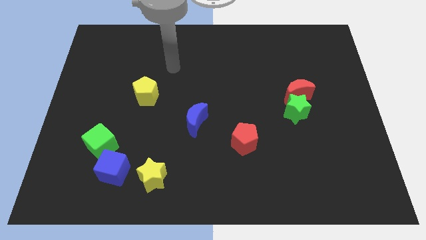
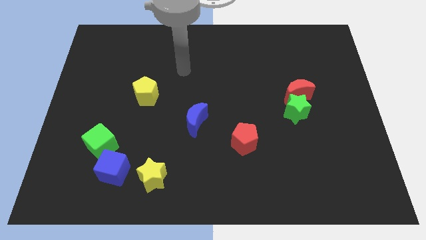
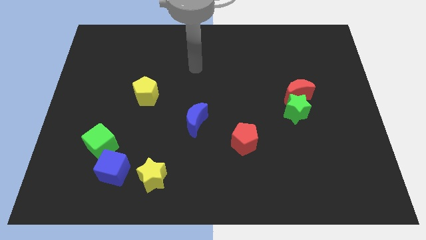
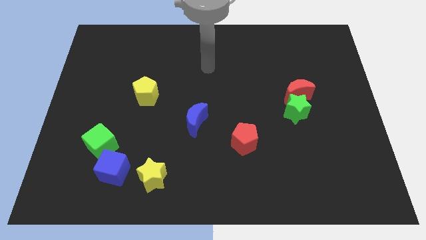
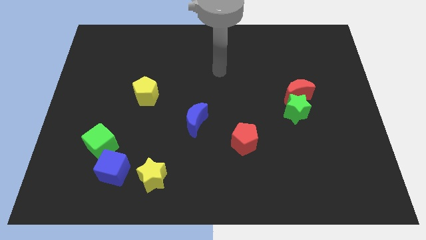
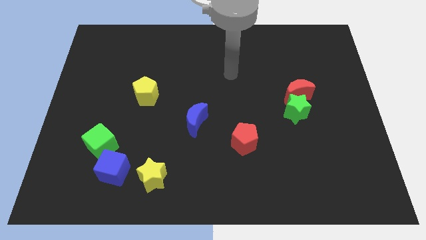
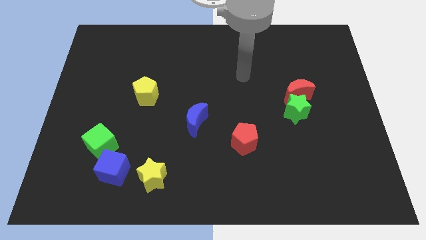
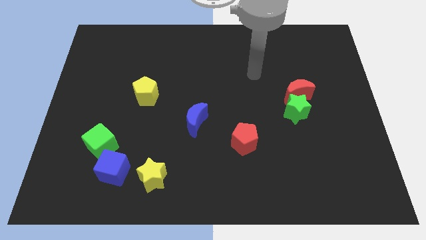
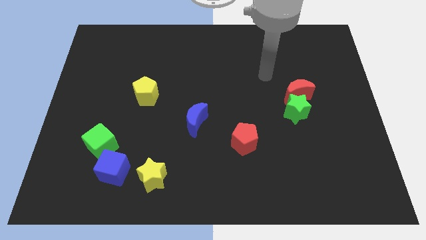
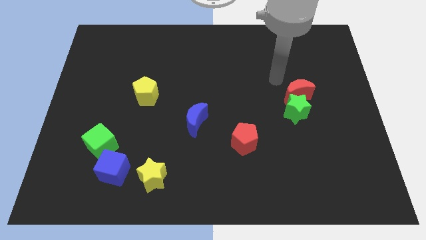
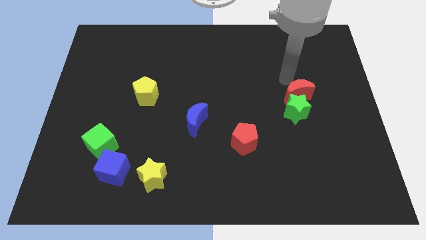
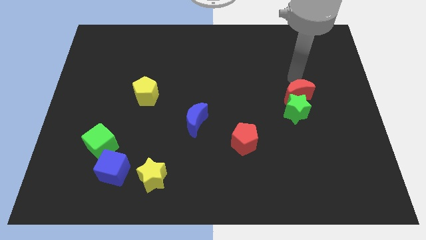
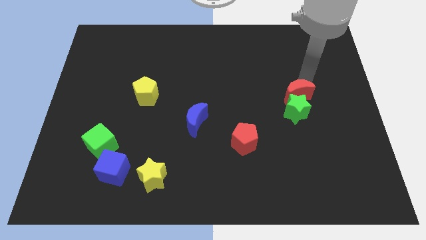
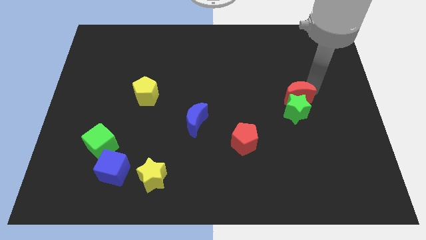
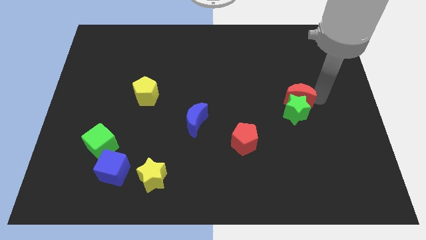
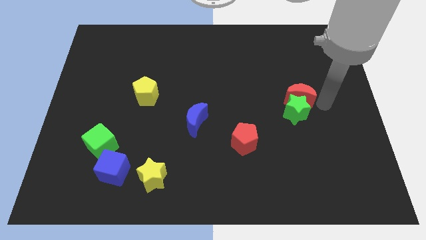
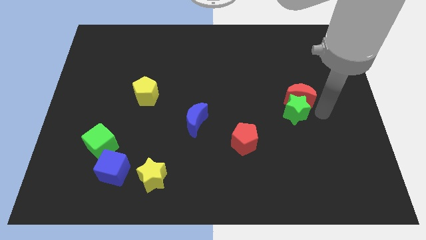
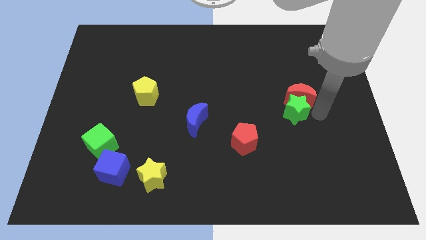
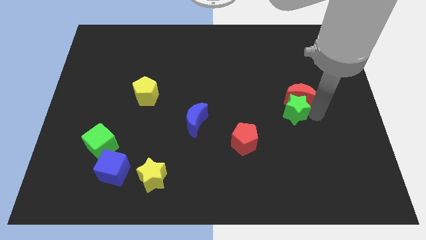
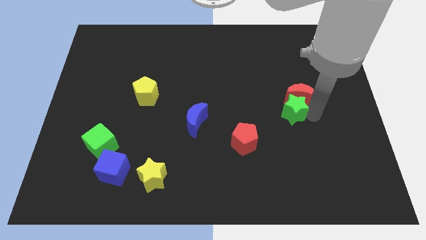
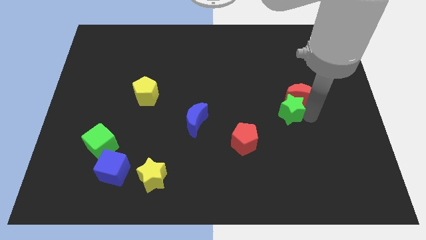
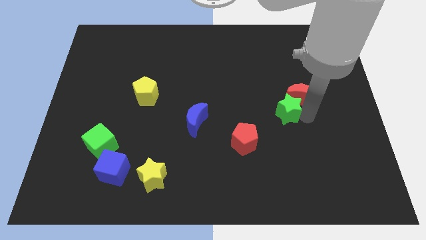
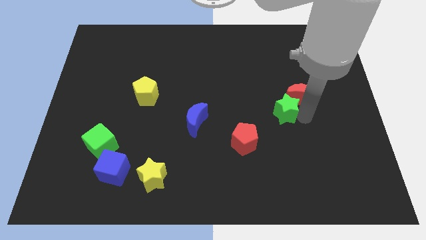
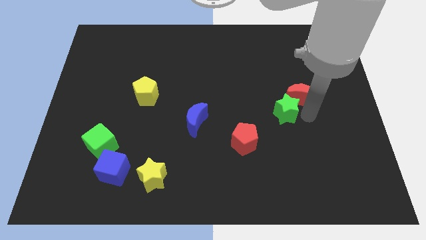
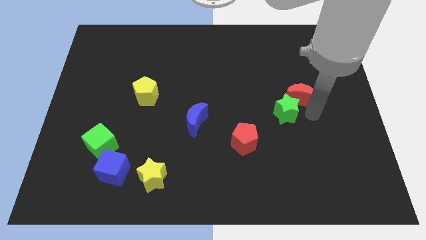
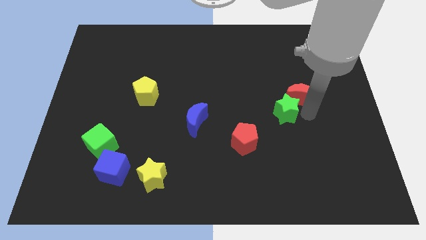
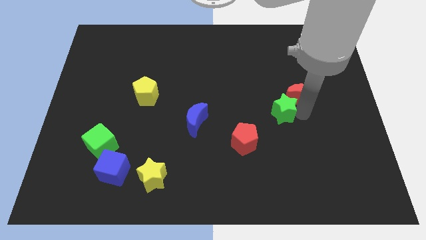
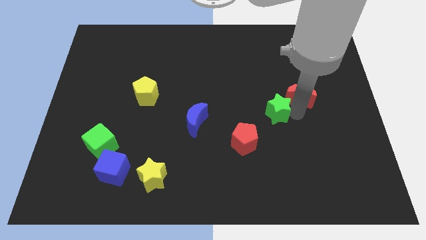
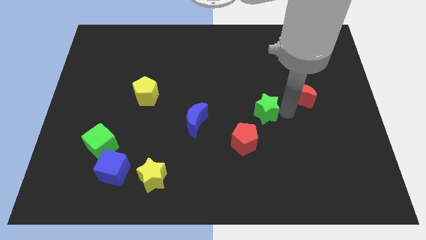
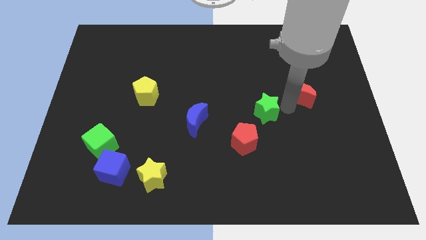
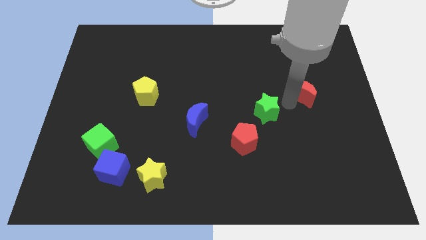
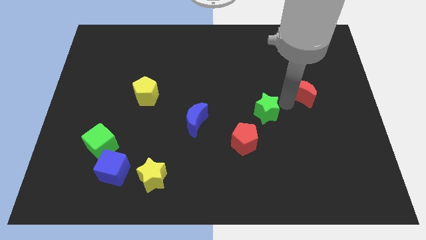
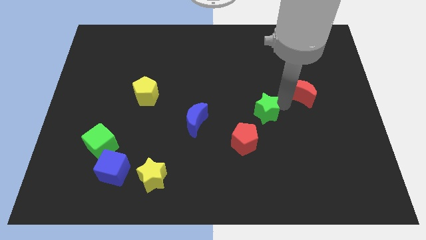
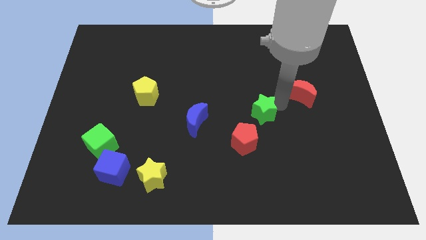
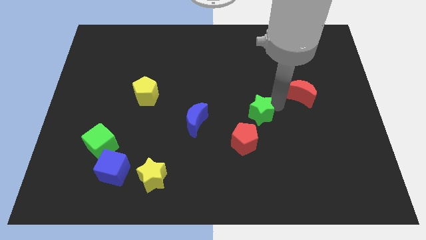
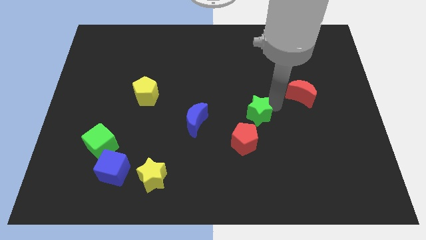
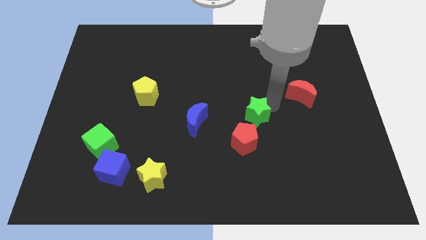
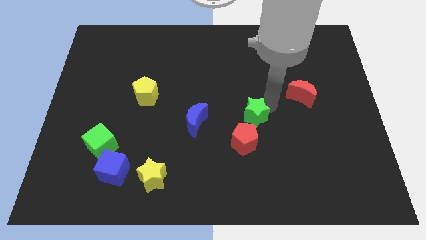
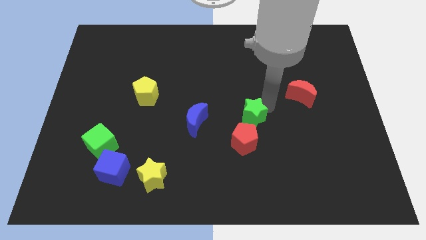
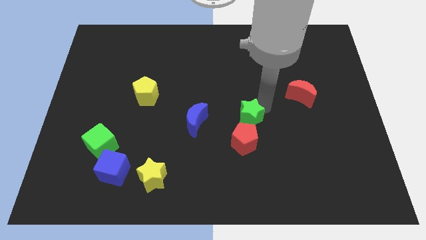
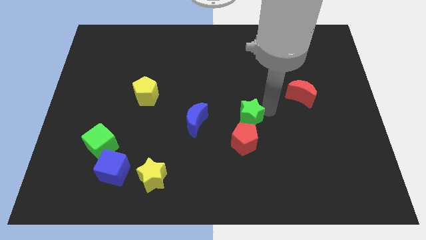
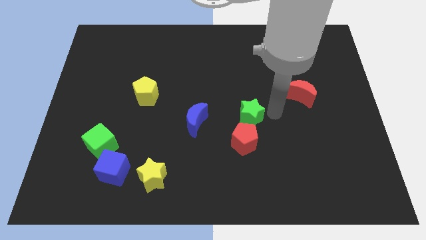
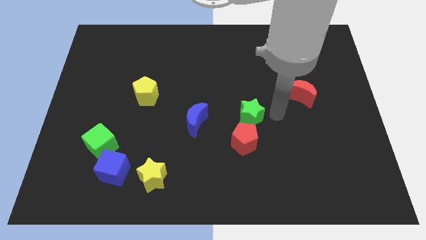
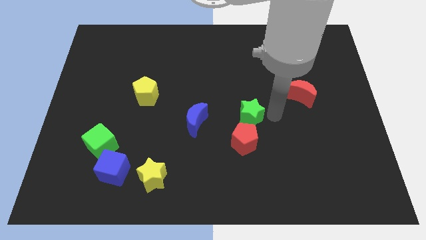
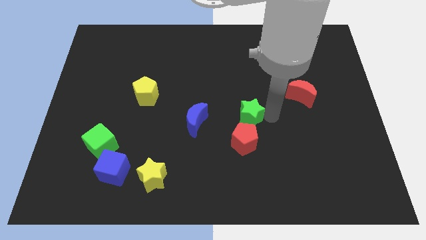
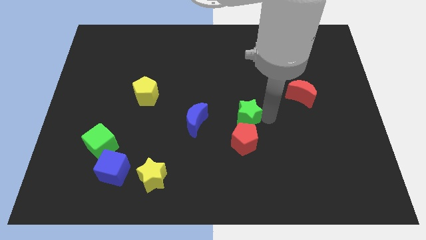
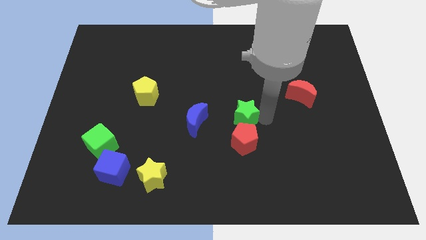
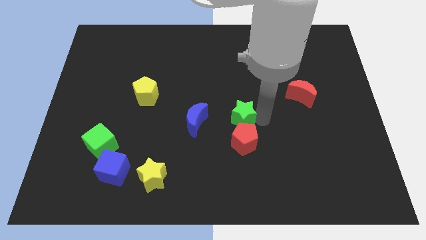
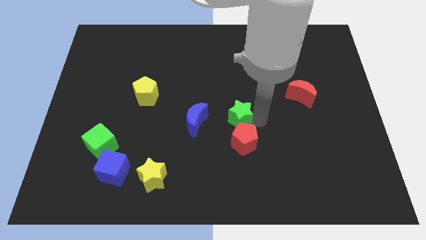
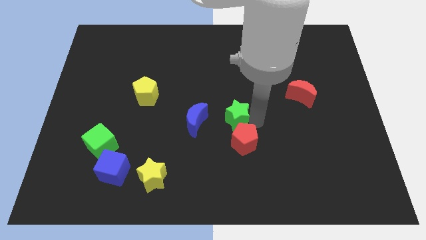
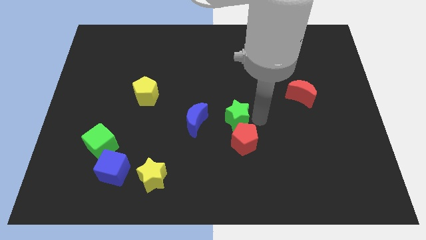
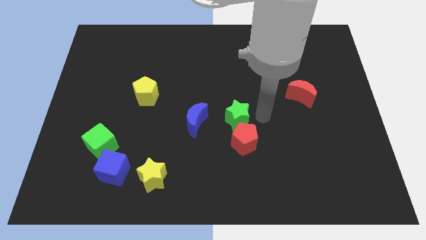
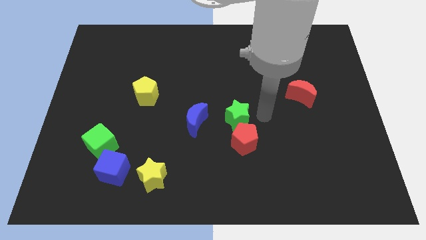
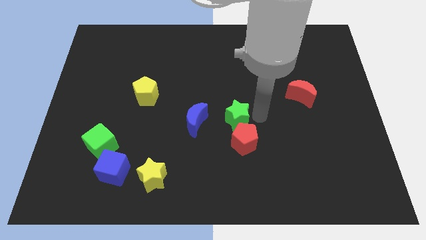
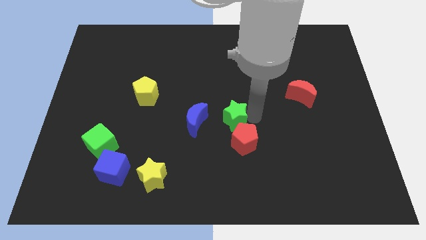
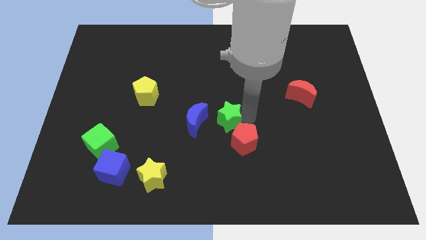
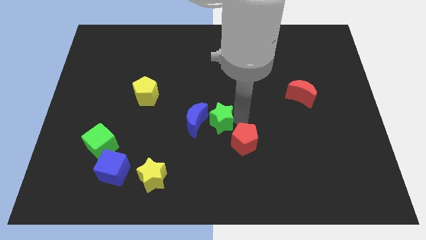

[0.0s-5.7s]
move the green star close to the blue moon

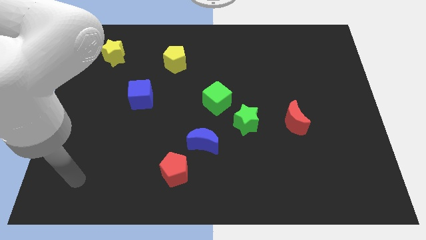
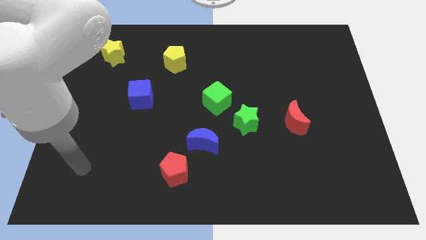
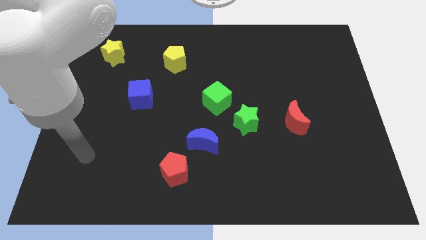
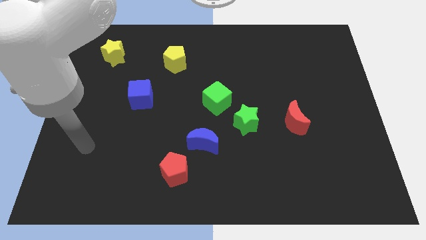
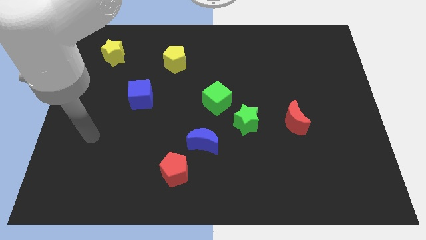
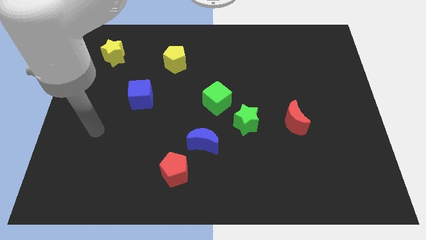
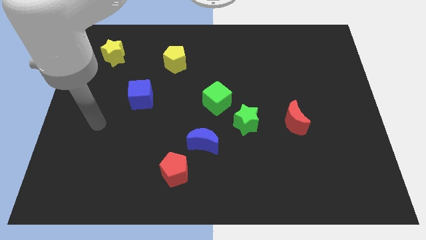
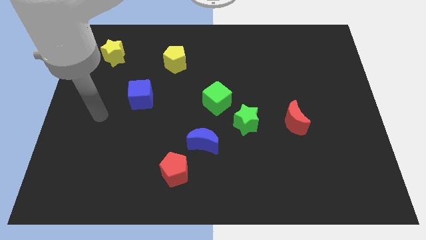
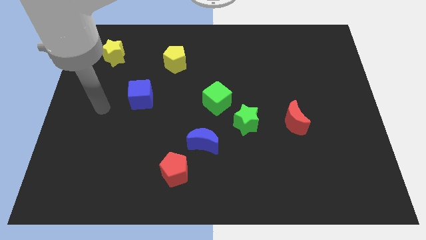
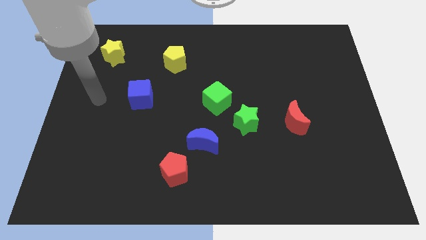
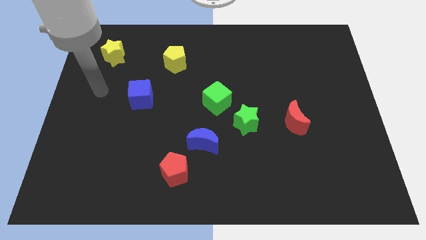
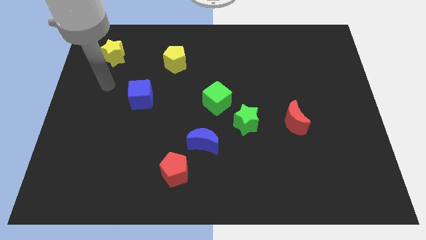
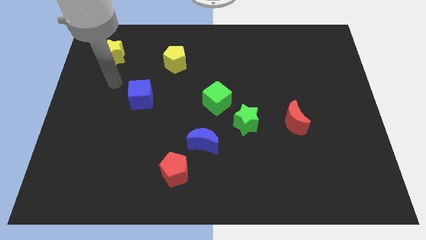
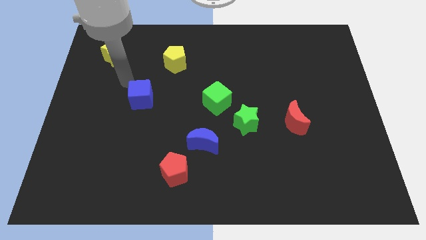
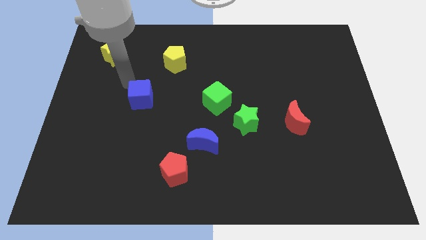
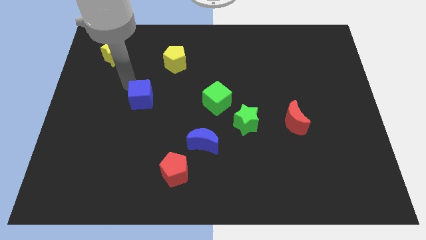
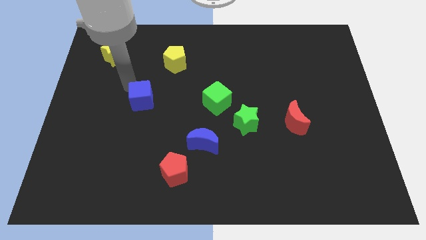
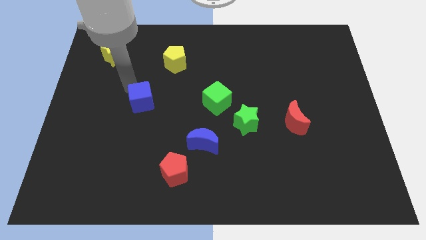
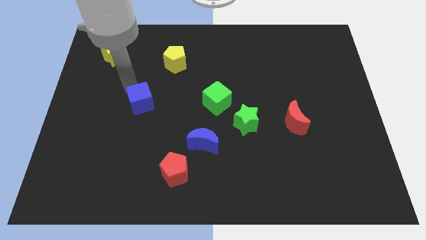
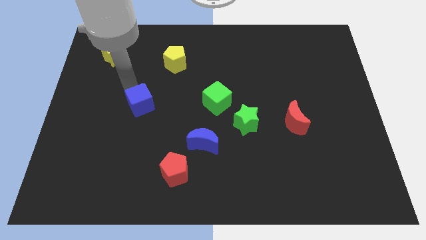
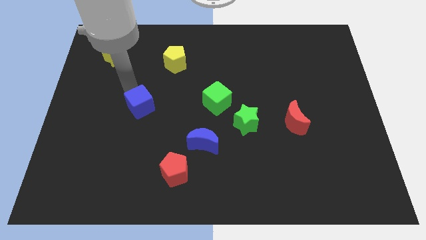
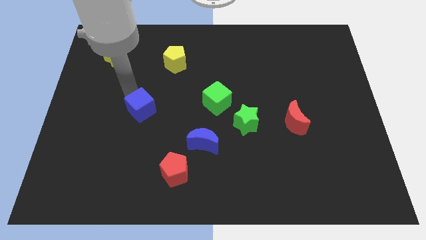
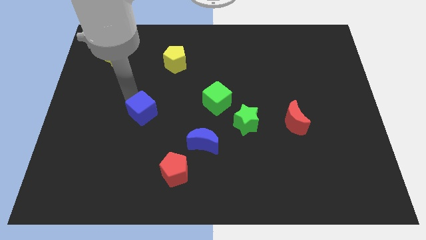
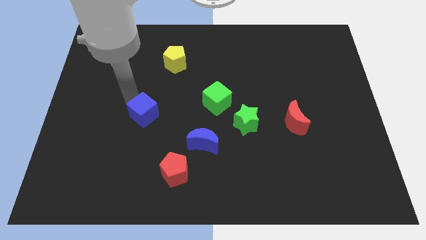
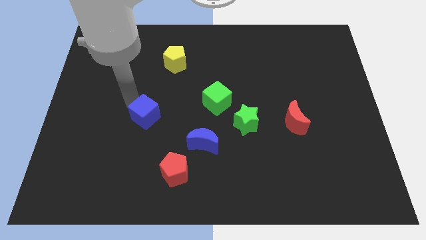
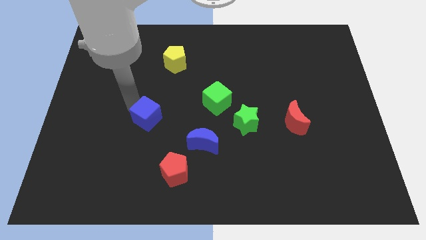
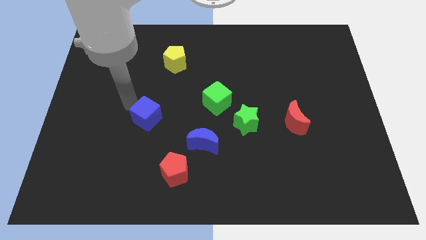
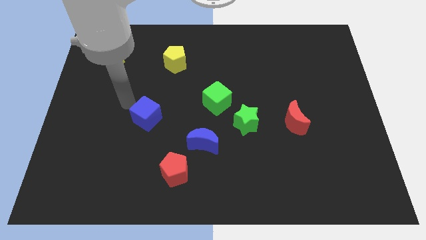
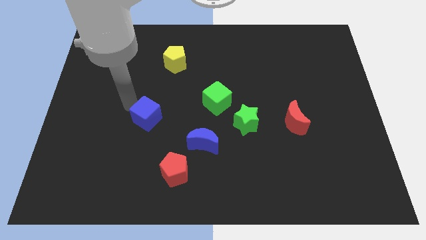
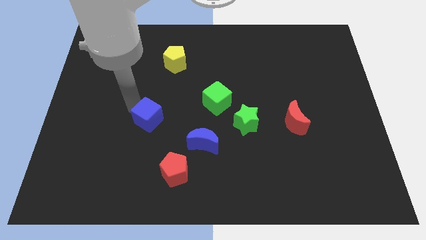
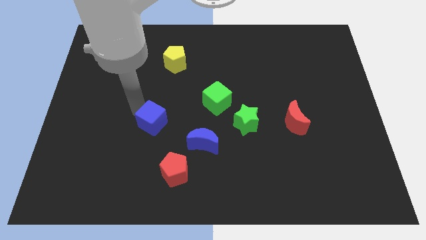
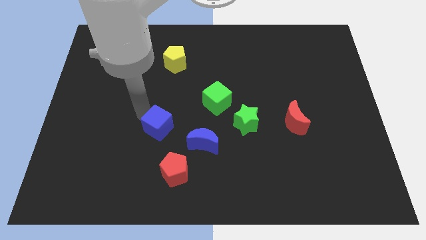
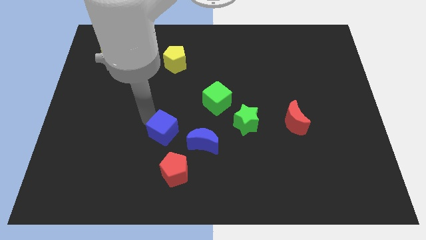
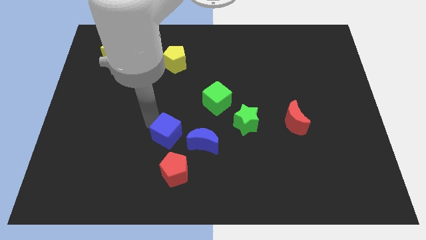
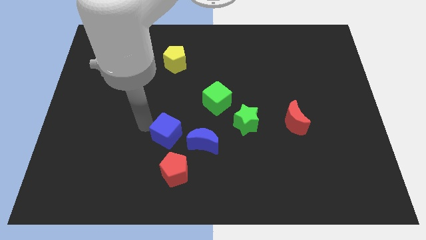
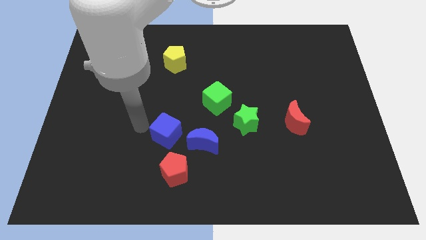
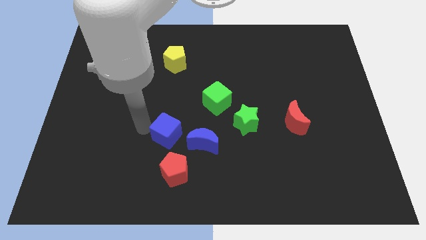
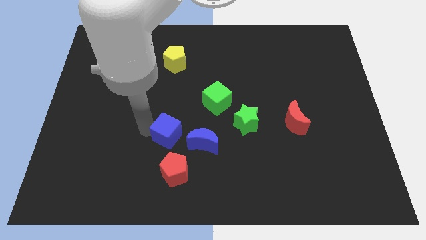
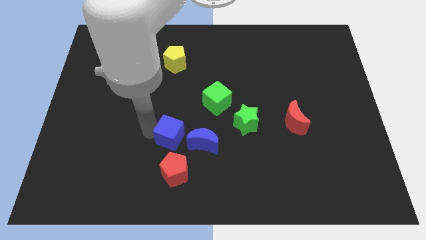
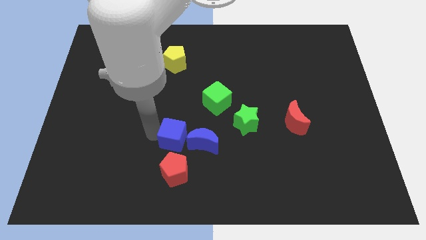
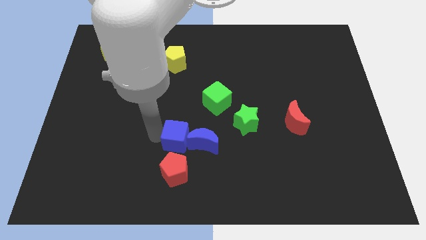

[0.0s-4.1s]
push the blue cube towards the blue moon
